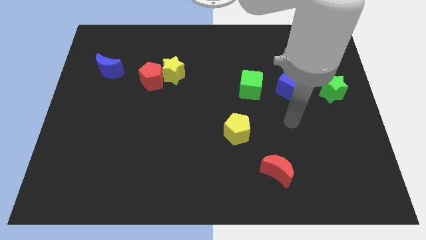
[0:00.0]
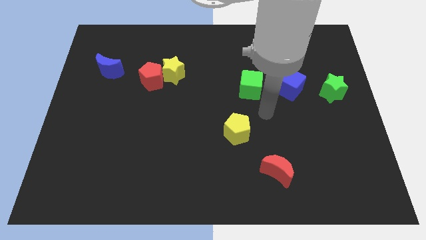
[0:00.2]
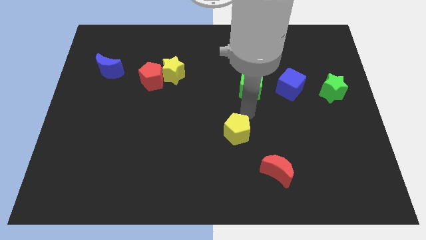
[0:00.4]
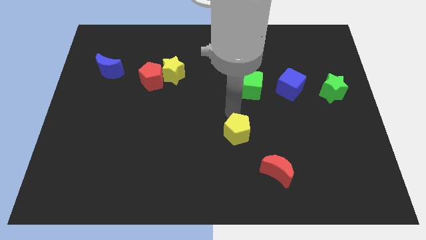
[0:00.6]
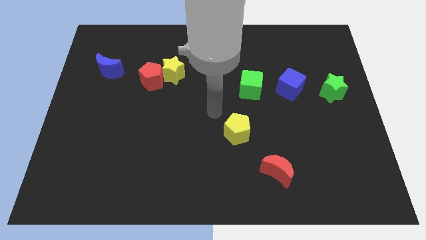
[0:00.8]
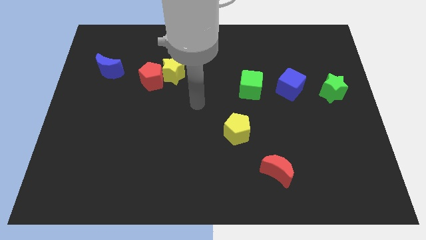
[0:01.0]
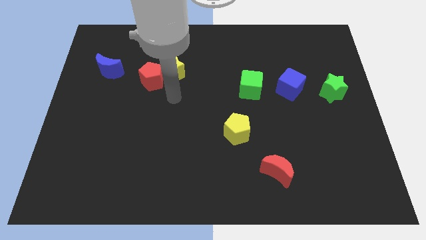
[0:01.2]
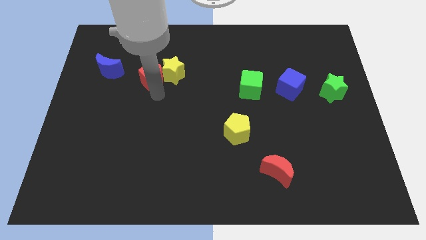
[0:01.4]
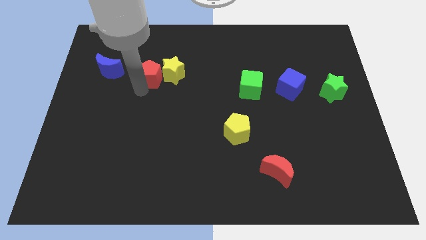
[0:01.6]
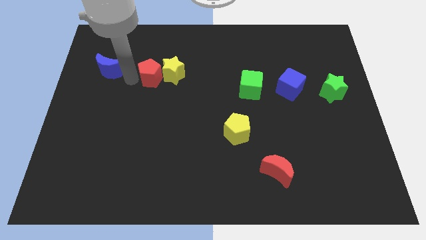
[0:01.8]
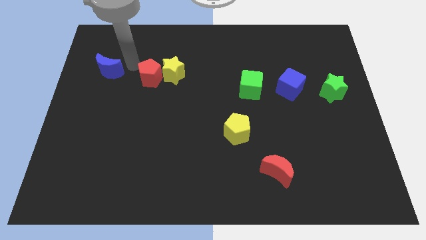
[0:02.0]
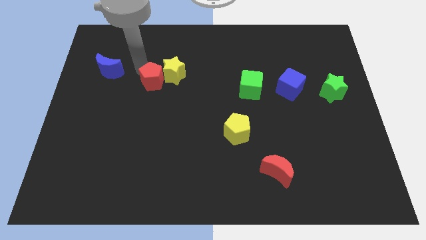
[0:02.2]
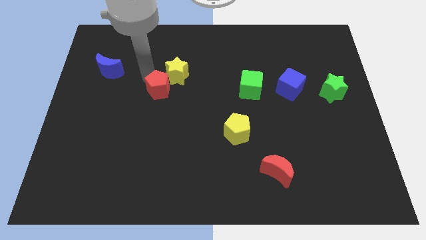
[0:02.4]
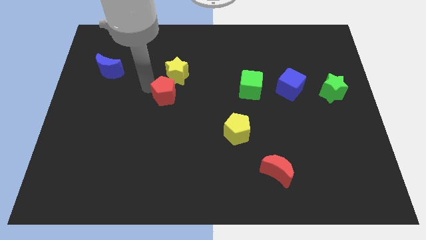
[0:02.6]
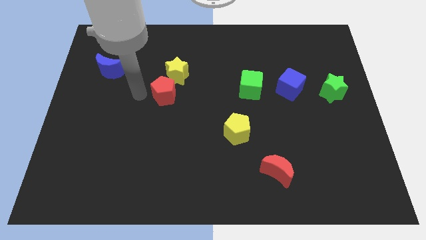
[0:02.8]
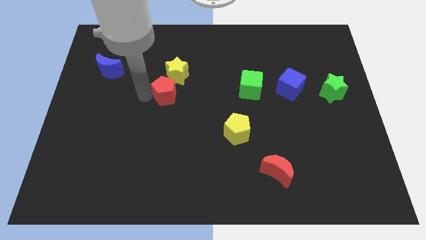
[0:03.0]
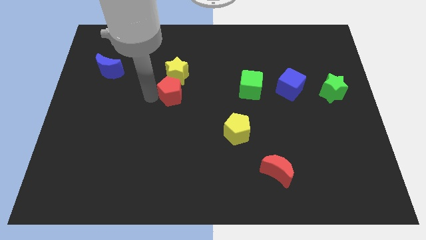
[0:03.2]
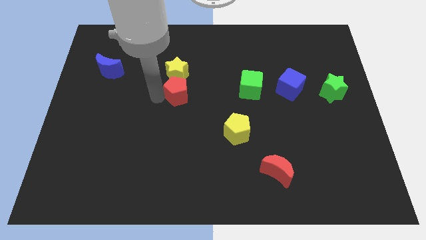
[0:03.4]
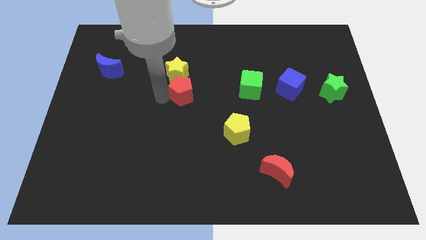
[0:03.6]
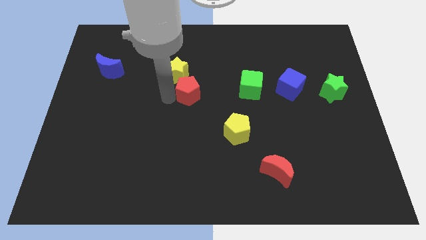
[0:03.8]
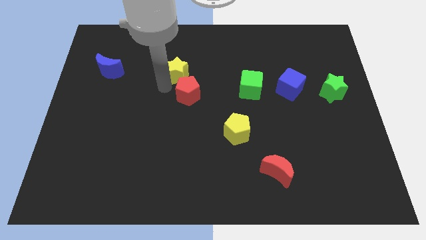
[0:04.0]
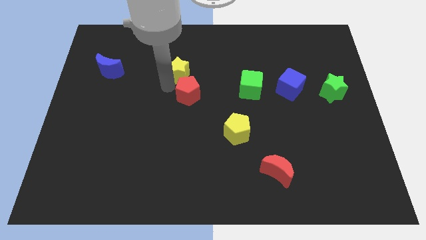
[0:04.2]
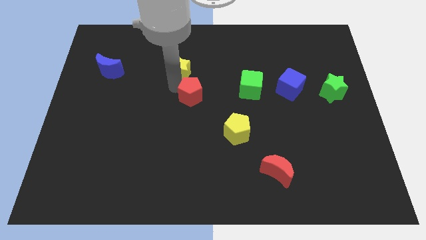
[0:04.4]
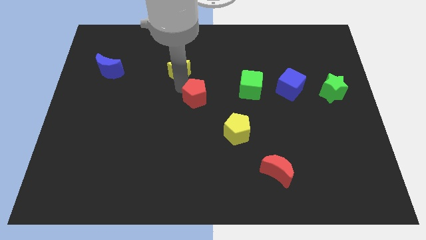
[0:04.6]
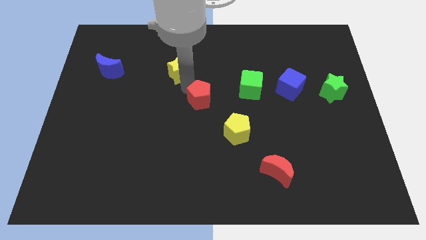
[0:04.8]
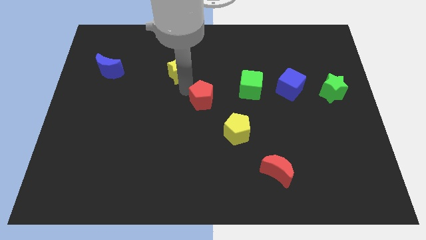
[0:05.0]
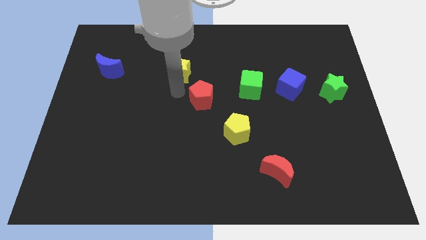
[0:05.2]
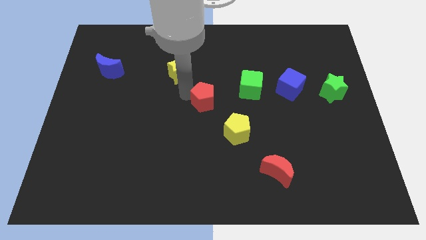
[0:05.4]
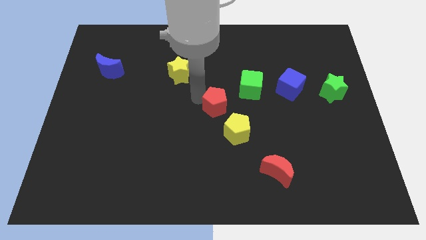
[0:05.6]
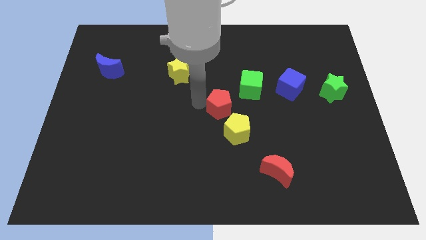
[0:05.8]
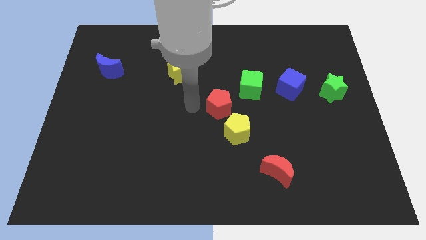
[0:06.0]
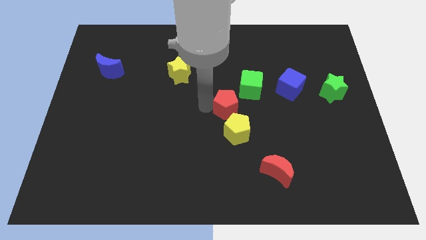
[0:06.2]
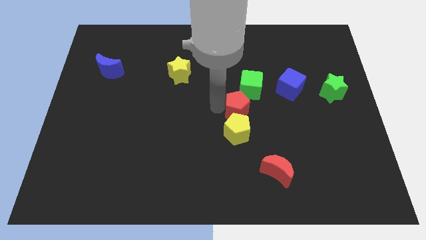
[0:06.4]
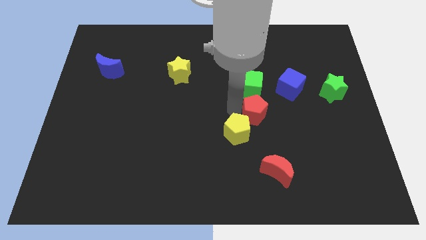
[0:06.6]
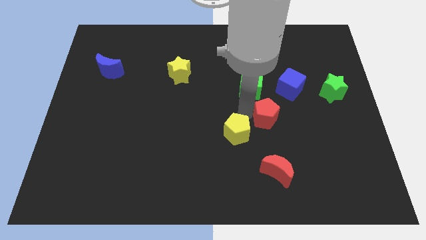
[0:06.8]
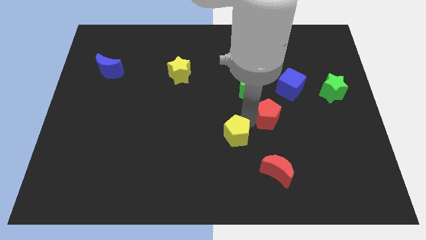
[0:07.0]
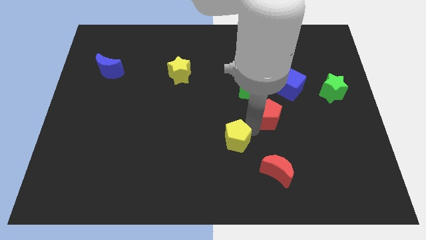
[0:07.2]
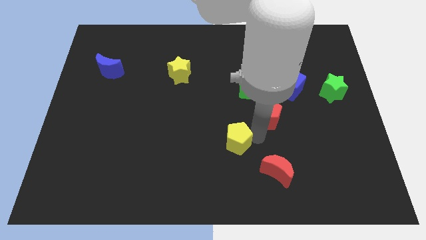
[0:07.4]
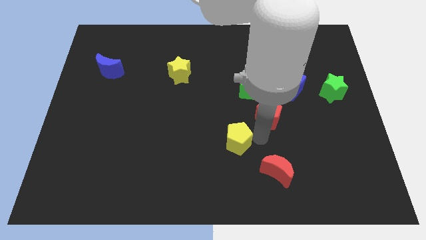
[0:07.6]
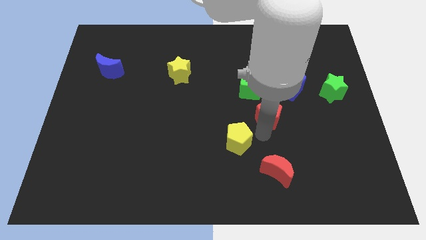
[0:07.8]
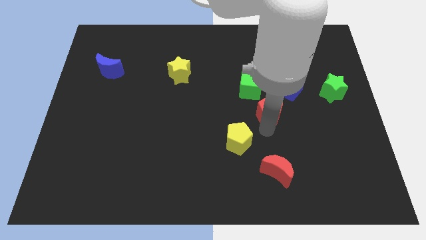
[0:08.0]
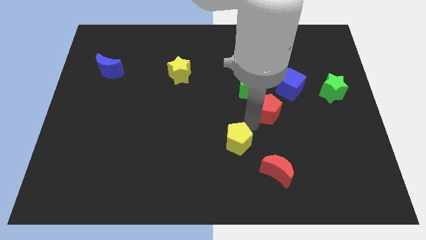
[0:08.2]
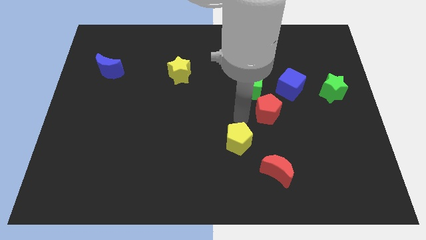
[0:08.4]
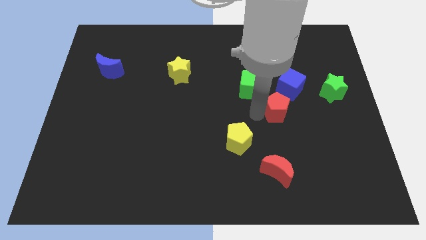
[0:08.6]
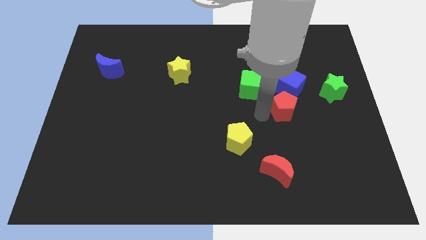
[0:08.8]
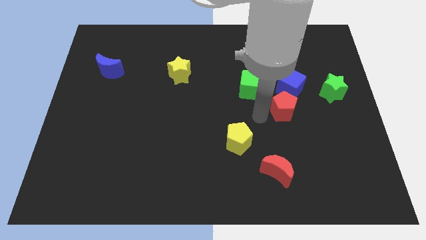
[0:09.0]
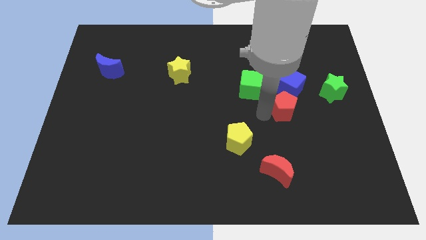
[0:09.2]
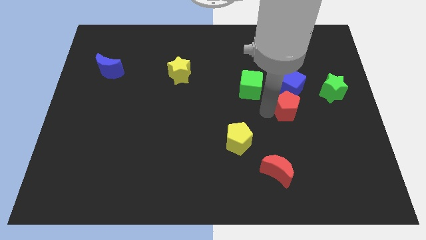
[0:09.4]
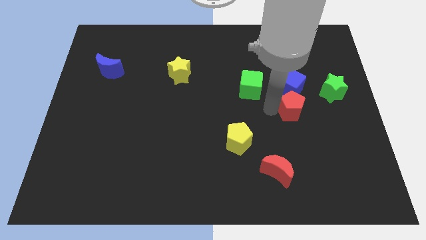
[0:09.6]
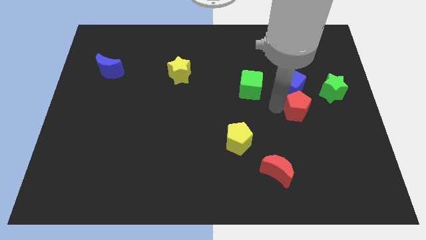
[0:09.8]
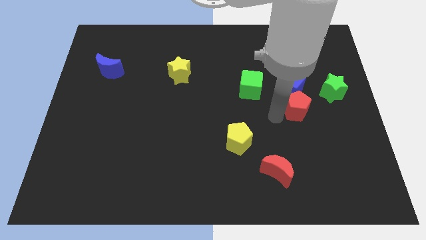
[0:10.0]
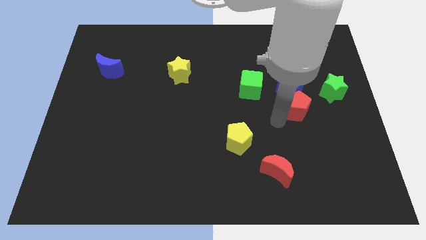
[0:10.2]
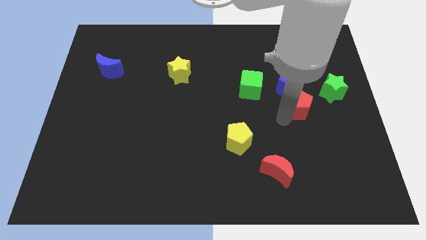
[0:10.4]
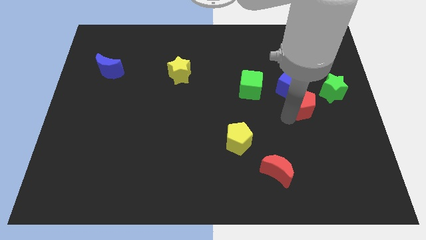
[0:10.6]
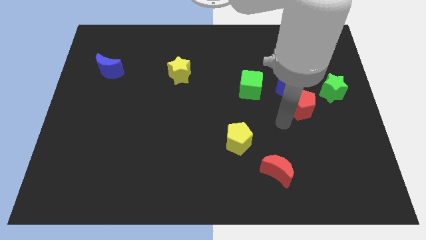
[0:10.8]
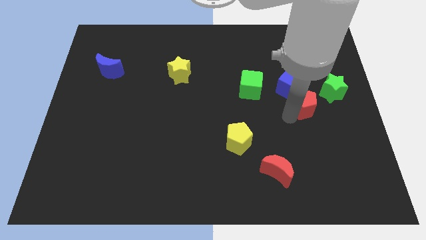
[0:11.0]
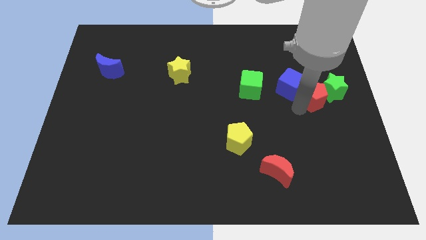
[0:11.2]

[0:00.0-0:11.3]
slide the red pentagon to the green star

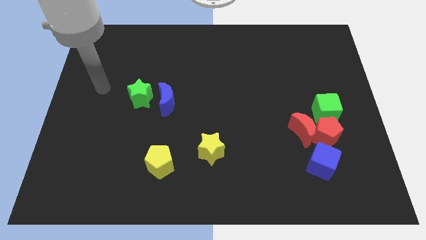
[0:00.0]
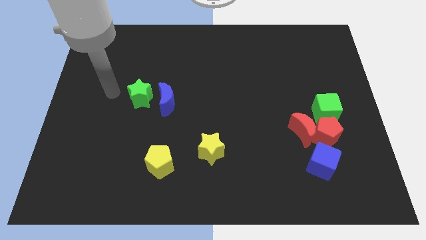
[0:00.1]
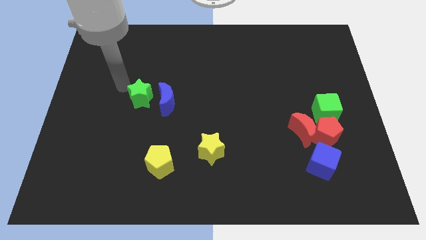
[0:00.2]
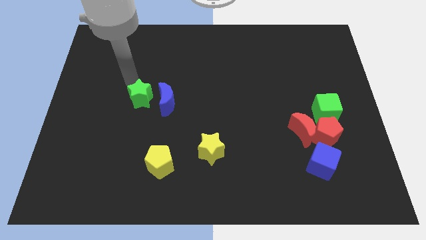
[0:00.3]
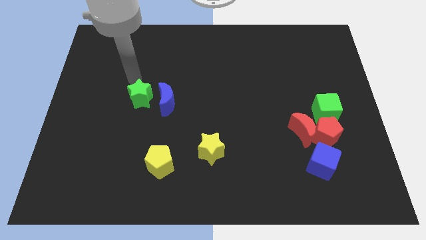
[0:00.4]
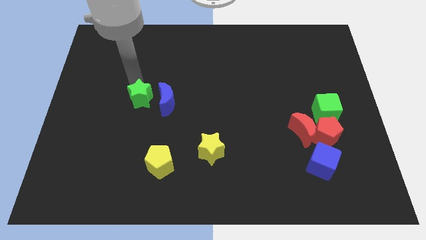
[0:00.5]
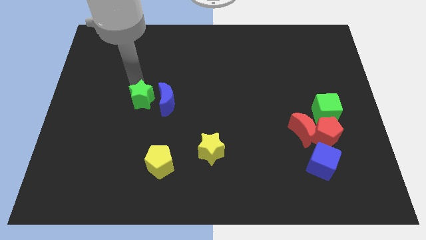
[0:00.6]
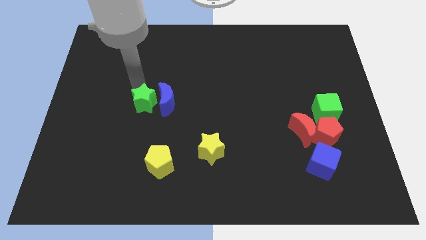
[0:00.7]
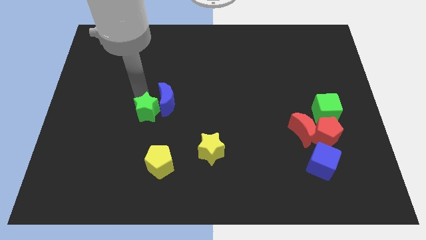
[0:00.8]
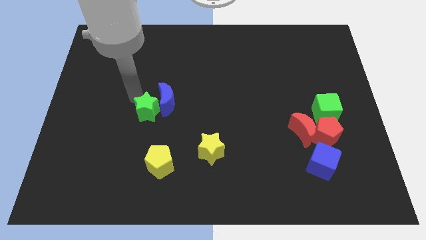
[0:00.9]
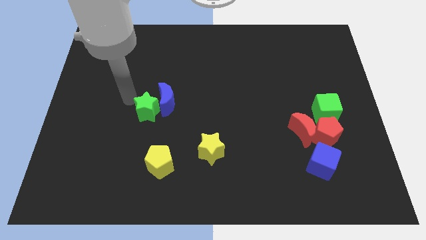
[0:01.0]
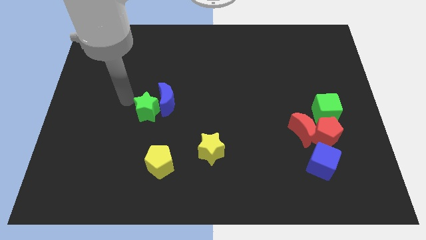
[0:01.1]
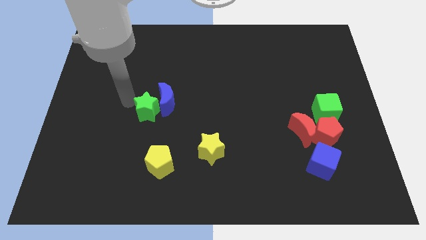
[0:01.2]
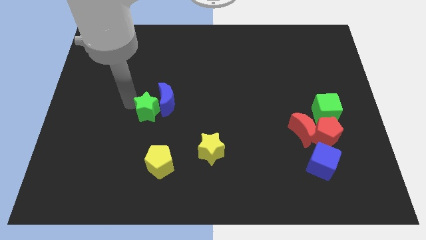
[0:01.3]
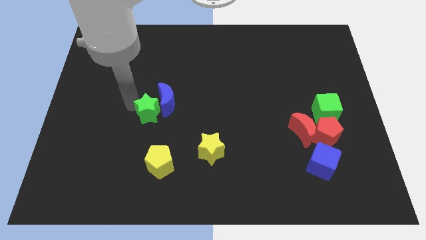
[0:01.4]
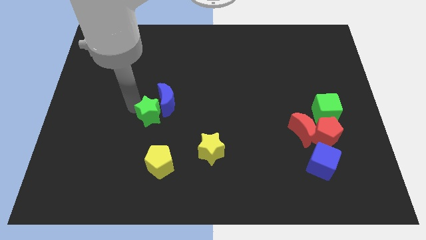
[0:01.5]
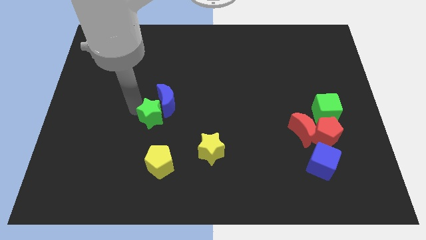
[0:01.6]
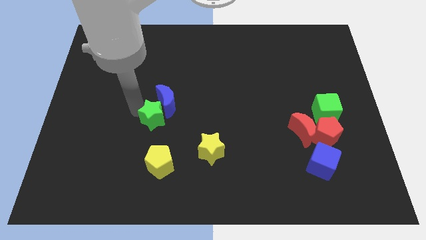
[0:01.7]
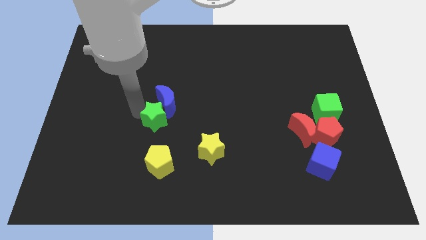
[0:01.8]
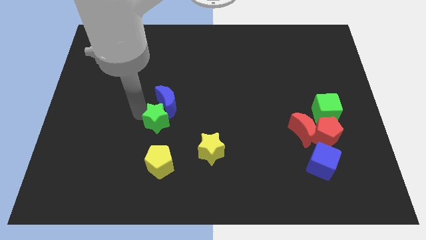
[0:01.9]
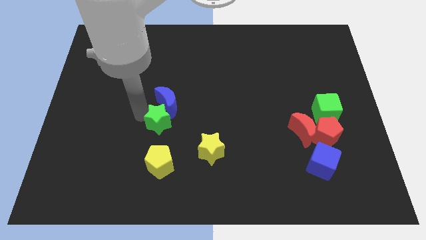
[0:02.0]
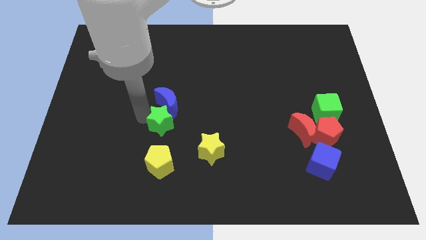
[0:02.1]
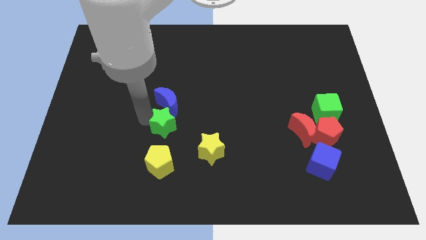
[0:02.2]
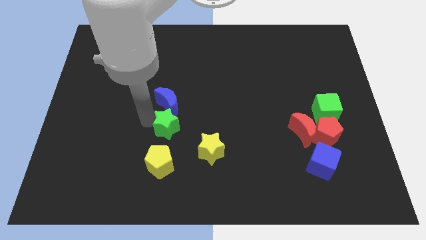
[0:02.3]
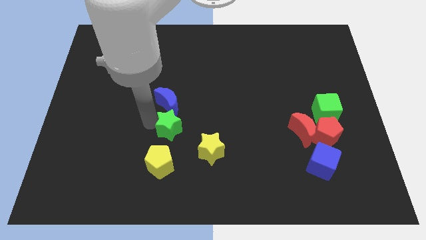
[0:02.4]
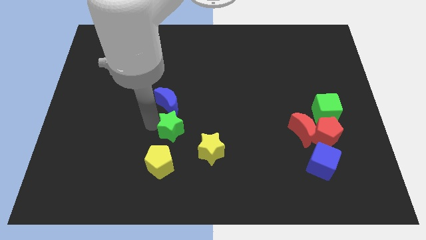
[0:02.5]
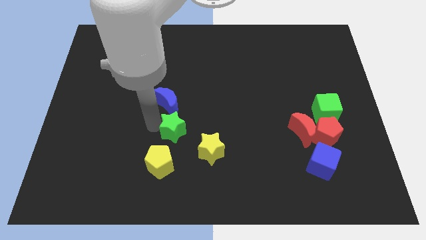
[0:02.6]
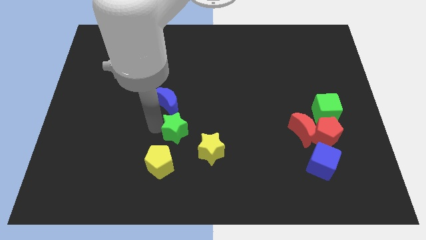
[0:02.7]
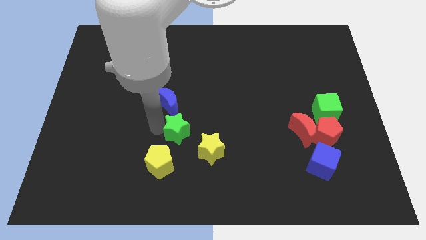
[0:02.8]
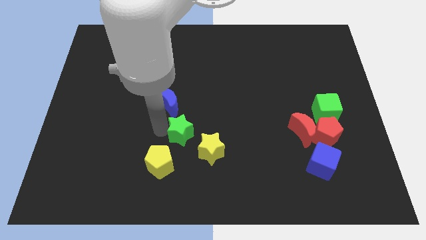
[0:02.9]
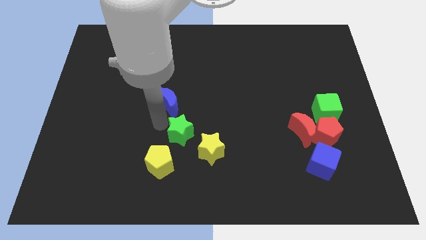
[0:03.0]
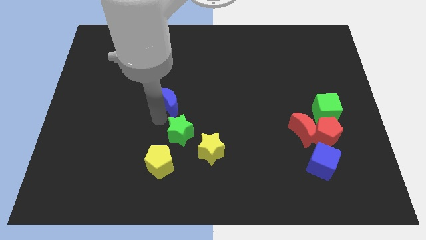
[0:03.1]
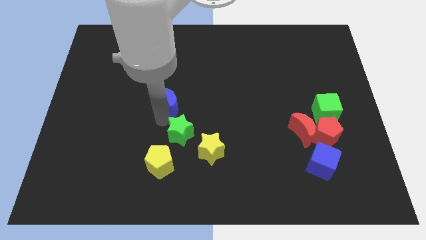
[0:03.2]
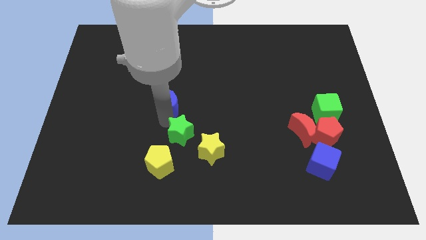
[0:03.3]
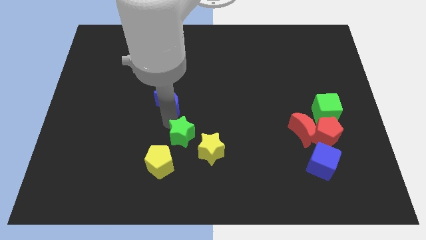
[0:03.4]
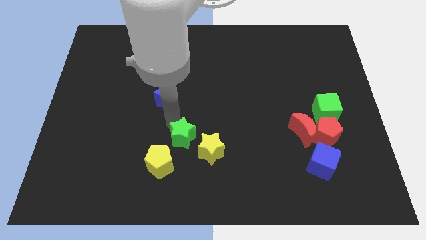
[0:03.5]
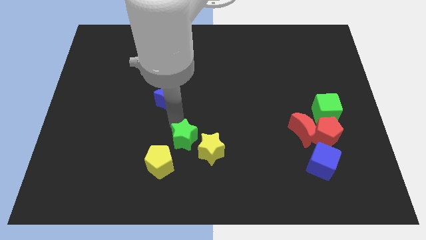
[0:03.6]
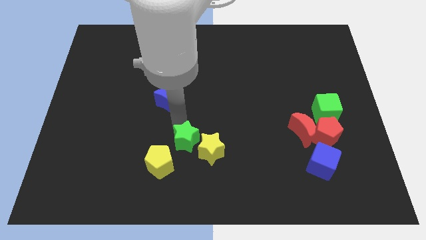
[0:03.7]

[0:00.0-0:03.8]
slide the green star next to the yellow star
